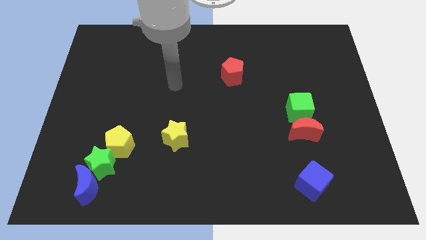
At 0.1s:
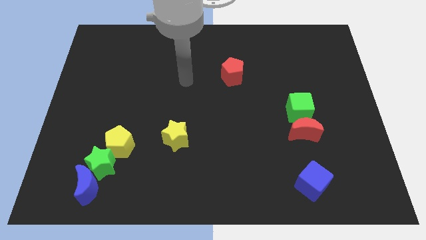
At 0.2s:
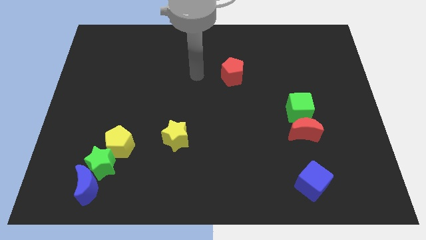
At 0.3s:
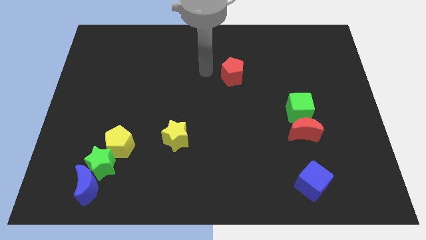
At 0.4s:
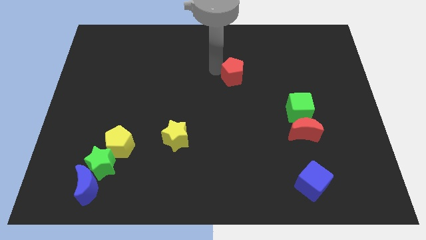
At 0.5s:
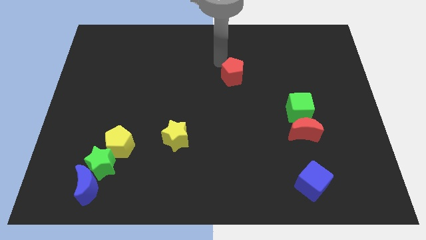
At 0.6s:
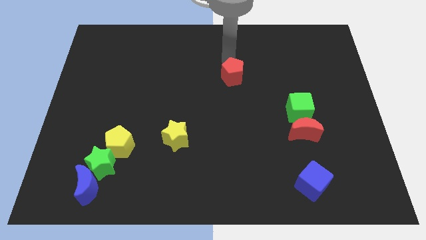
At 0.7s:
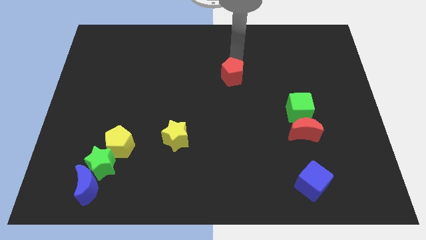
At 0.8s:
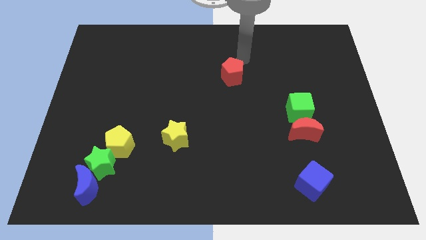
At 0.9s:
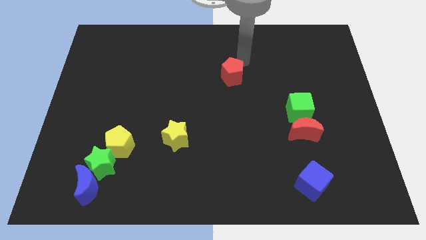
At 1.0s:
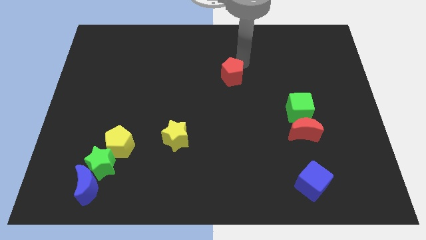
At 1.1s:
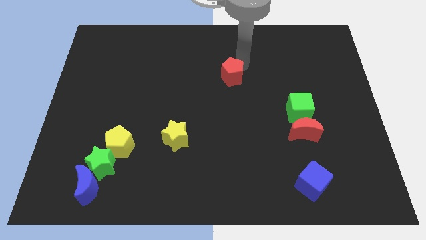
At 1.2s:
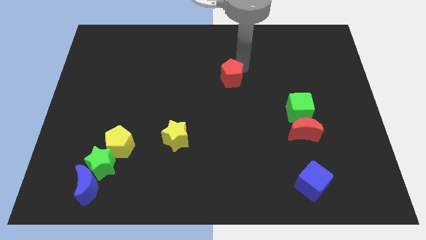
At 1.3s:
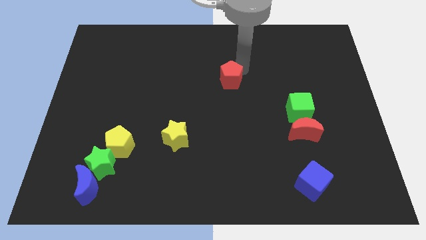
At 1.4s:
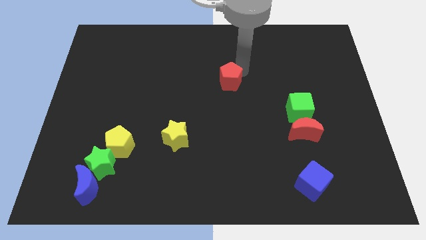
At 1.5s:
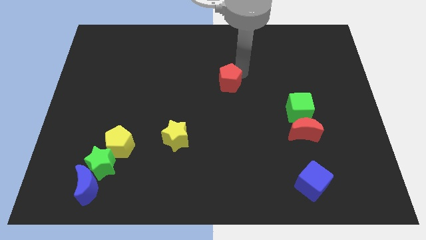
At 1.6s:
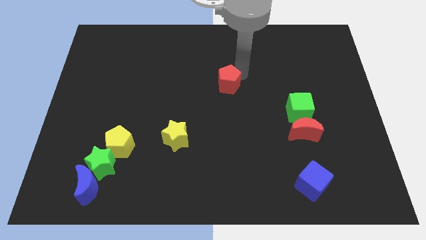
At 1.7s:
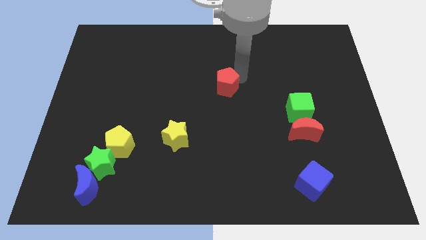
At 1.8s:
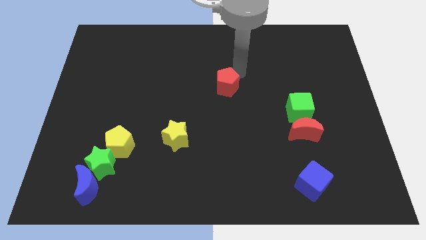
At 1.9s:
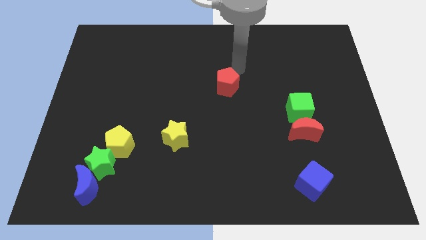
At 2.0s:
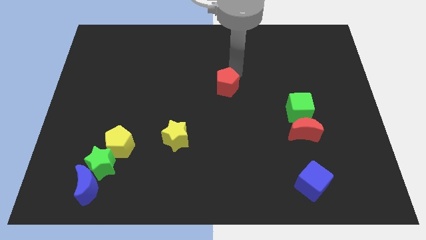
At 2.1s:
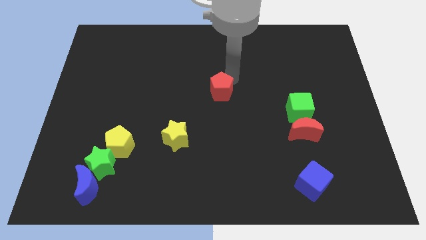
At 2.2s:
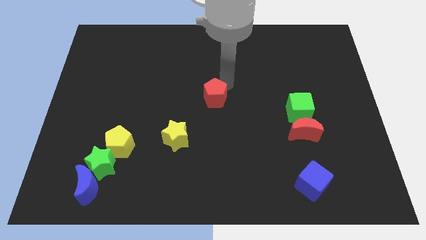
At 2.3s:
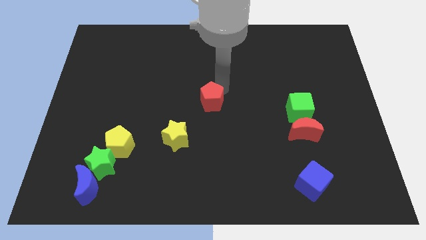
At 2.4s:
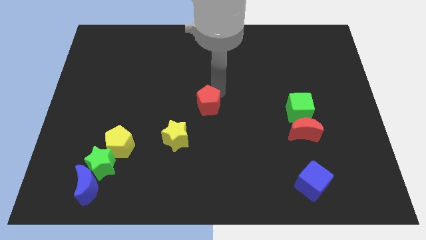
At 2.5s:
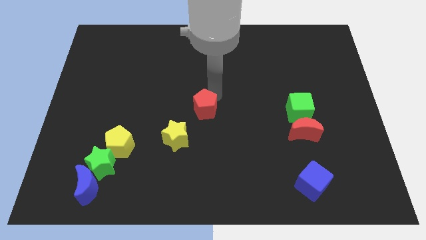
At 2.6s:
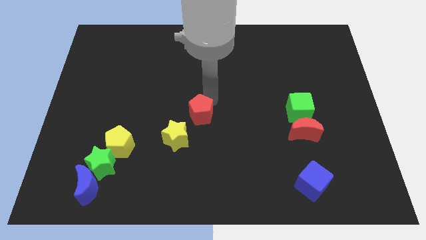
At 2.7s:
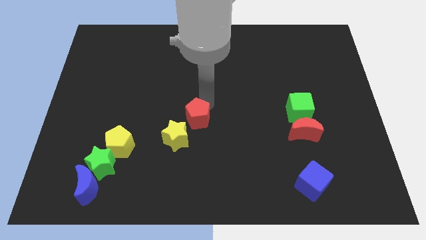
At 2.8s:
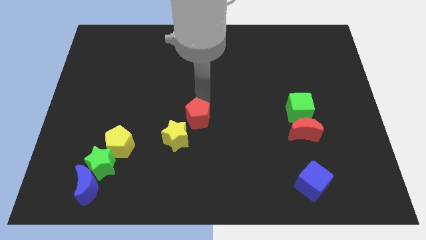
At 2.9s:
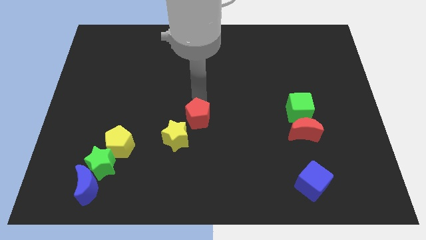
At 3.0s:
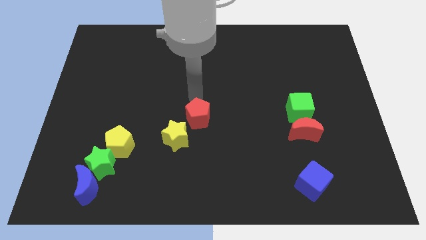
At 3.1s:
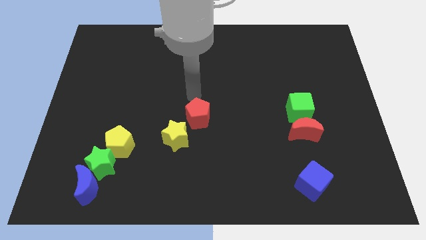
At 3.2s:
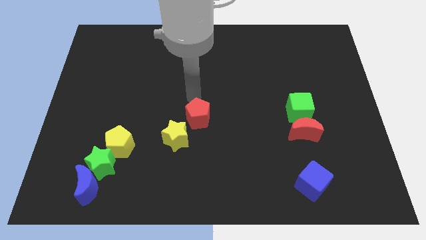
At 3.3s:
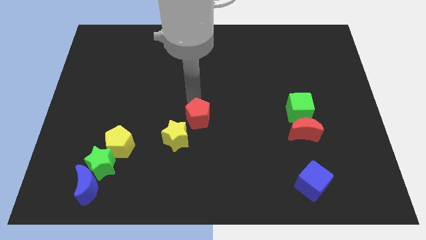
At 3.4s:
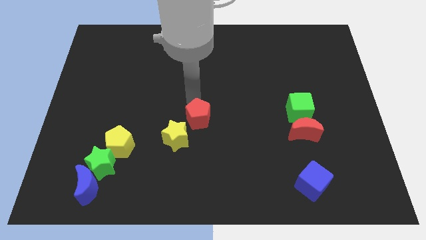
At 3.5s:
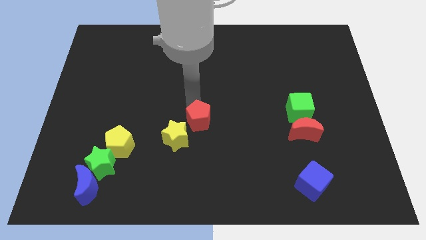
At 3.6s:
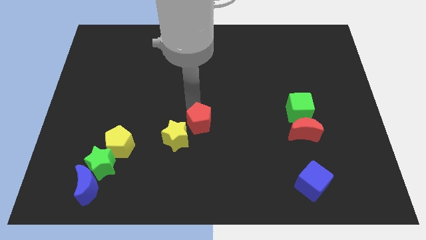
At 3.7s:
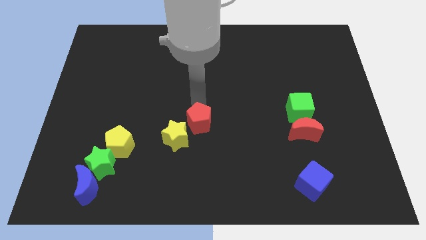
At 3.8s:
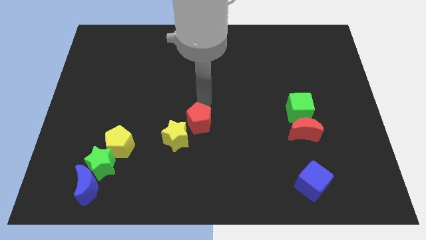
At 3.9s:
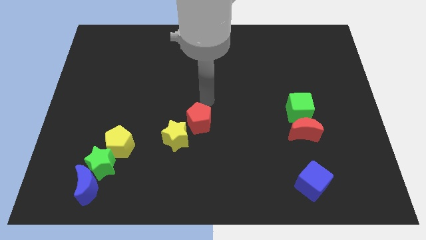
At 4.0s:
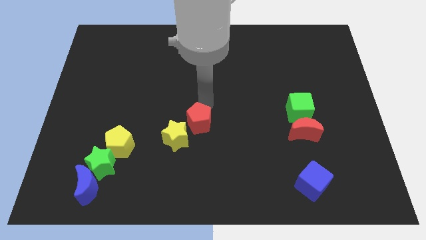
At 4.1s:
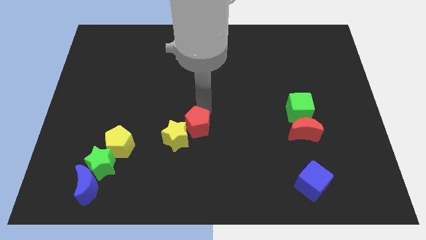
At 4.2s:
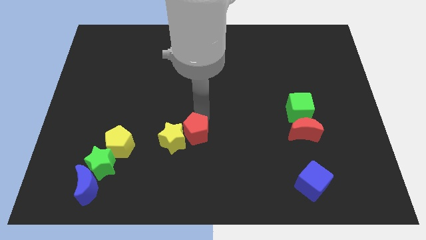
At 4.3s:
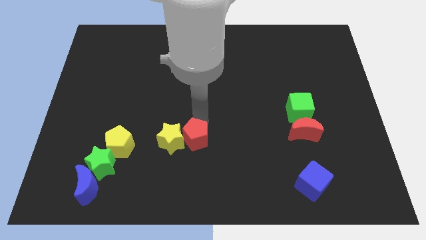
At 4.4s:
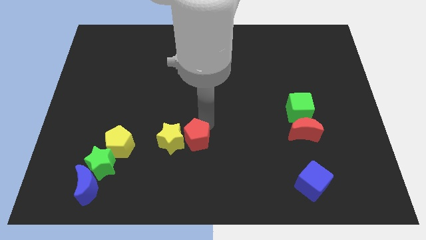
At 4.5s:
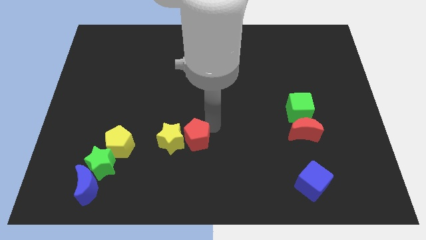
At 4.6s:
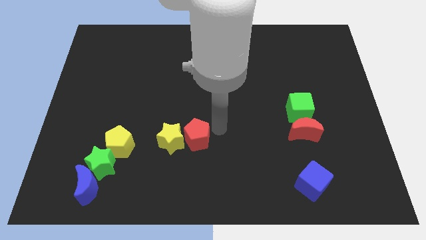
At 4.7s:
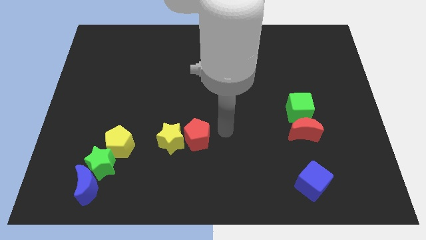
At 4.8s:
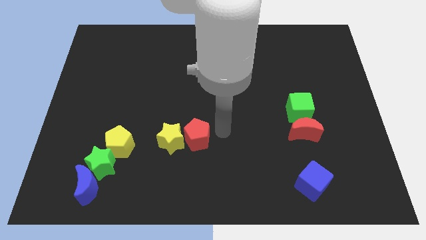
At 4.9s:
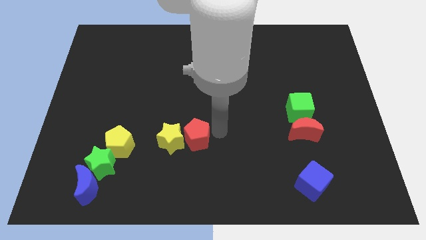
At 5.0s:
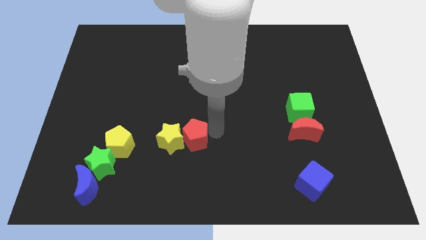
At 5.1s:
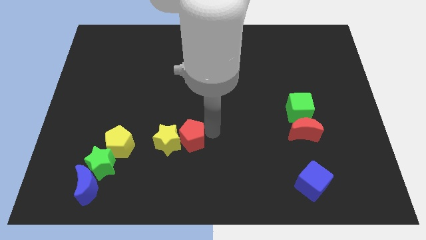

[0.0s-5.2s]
move the red pentagon to the right of the yellow pentagon

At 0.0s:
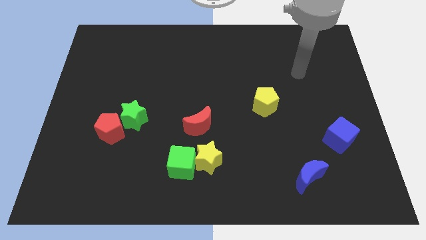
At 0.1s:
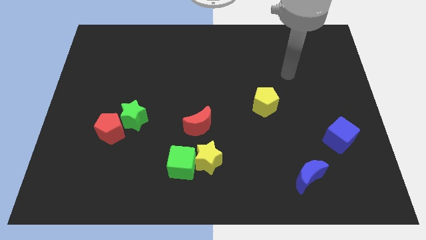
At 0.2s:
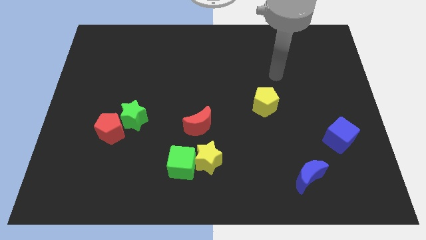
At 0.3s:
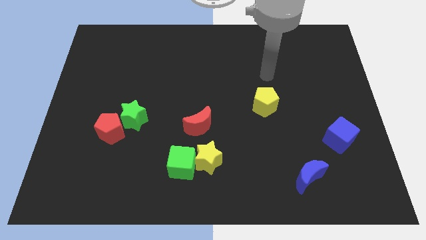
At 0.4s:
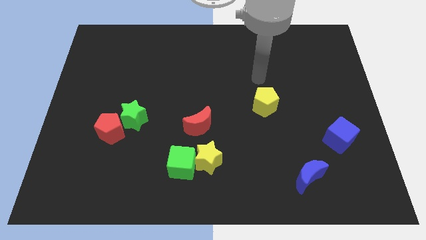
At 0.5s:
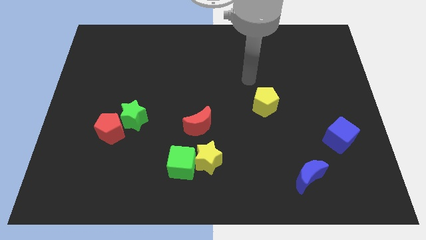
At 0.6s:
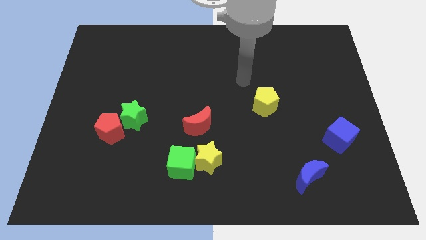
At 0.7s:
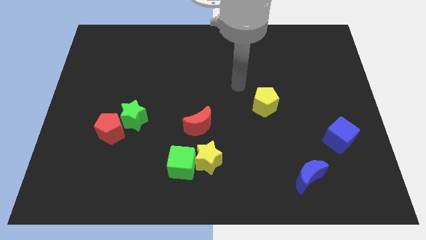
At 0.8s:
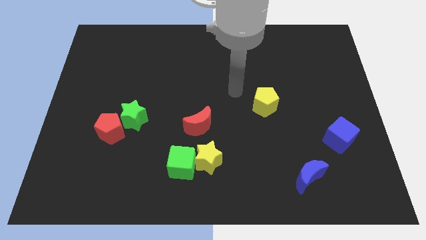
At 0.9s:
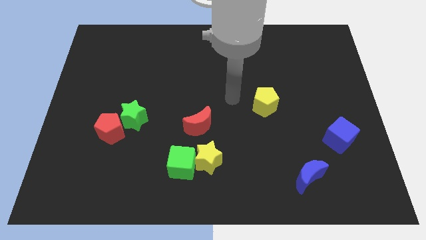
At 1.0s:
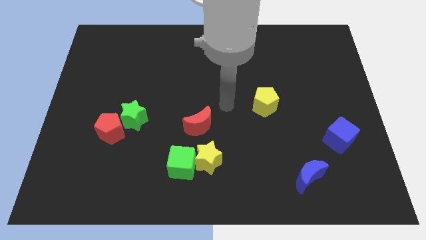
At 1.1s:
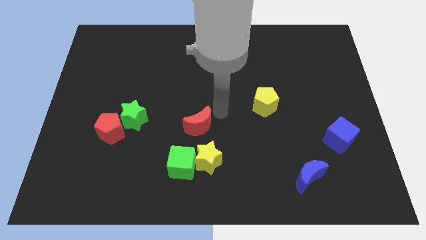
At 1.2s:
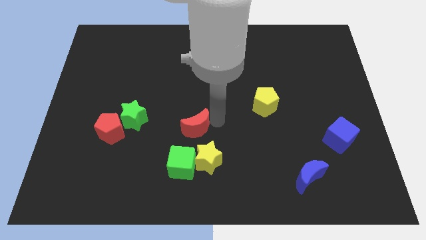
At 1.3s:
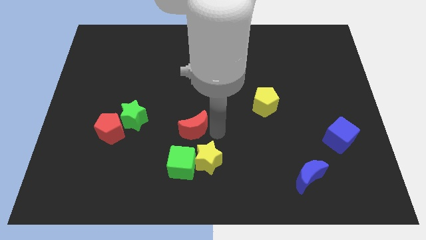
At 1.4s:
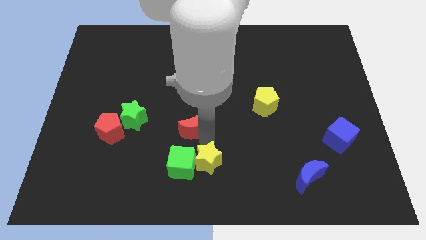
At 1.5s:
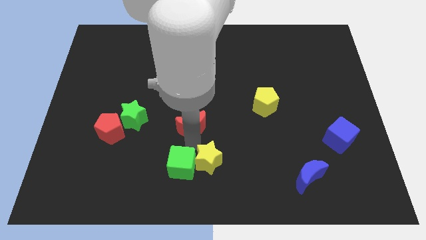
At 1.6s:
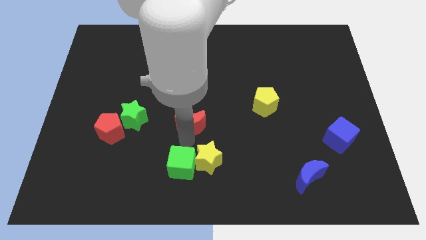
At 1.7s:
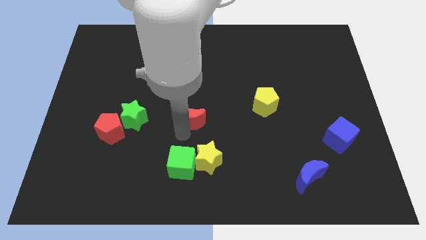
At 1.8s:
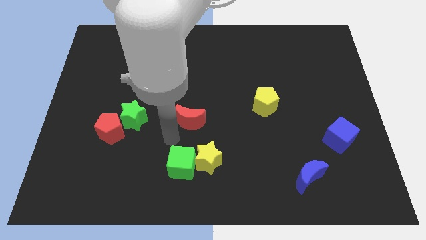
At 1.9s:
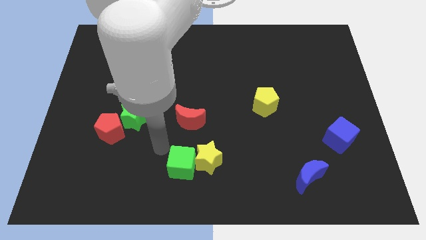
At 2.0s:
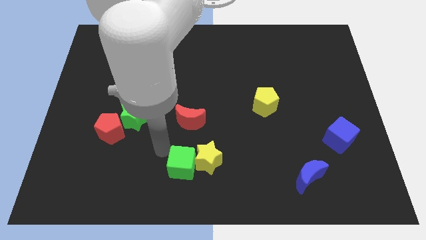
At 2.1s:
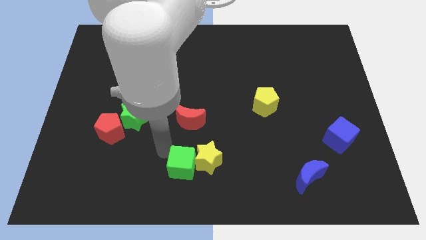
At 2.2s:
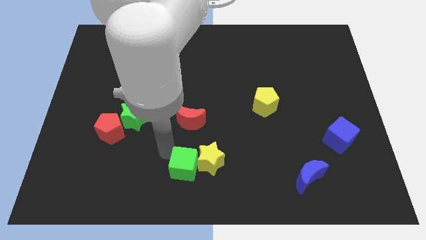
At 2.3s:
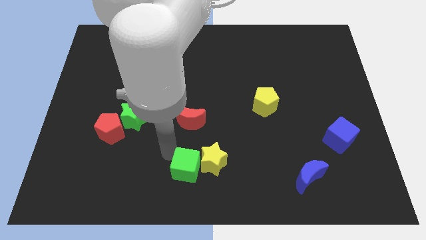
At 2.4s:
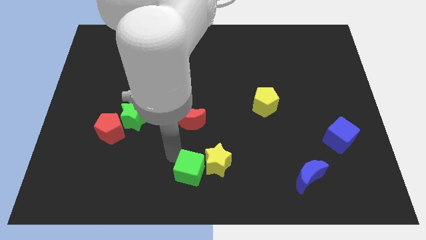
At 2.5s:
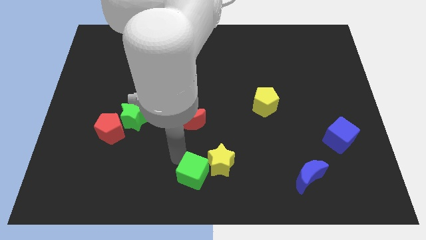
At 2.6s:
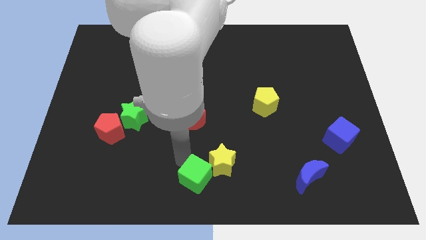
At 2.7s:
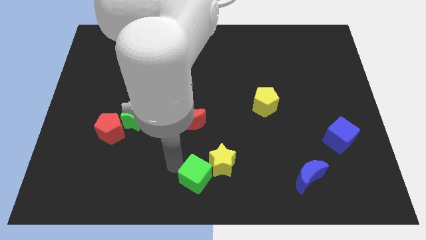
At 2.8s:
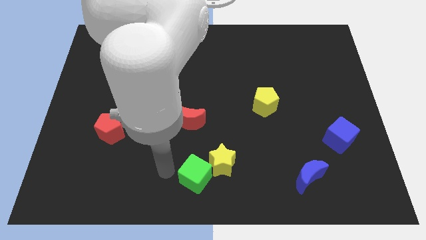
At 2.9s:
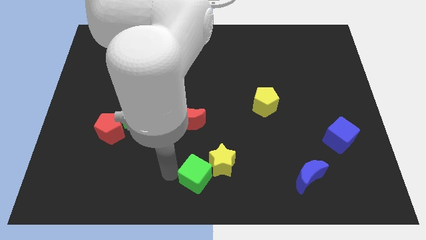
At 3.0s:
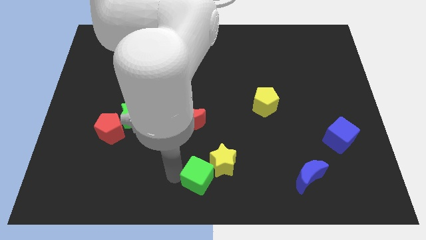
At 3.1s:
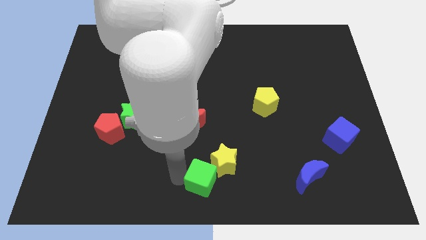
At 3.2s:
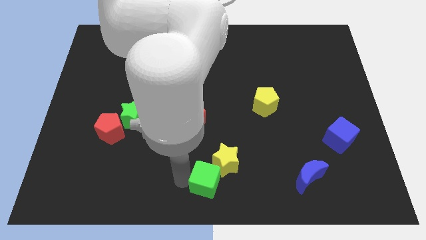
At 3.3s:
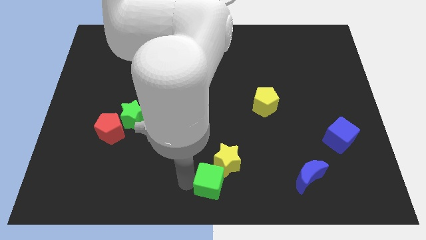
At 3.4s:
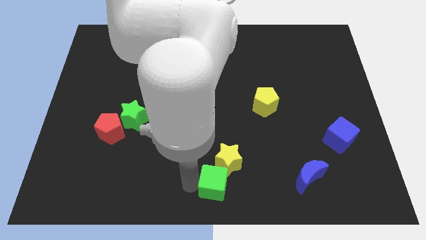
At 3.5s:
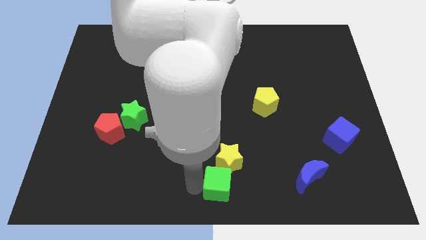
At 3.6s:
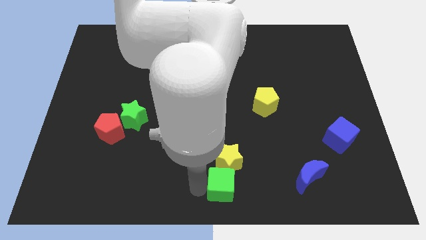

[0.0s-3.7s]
slide the green cube diagonally down and to the right of the yellow star
